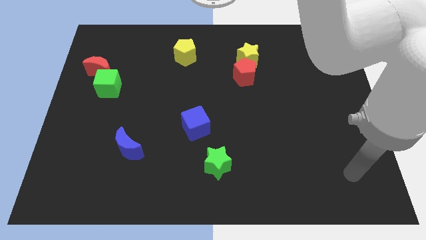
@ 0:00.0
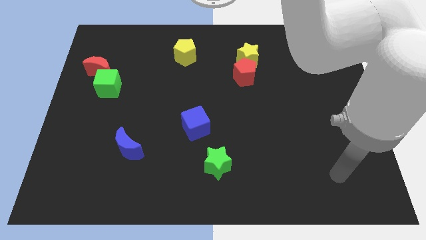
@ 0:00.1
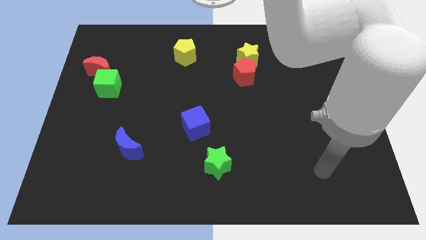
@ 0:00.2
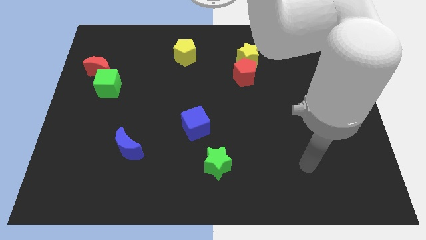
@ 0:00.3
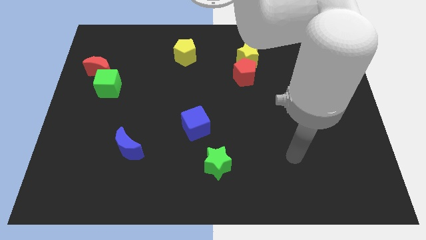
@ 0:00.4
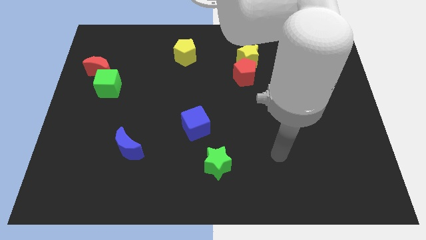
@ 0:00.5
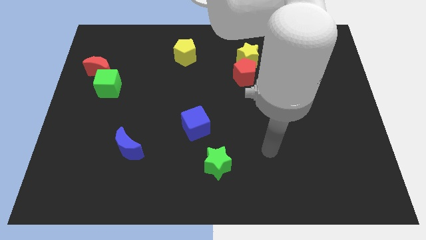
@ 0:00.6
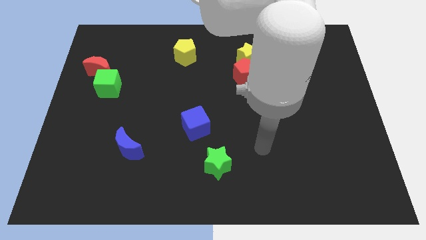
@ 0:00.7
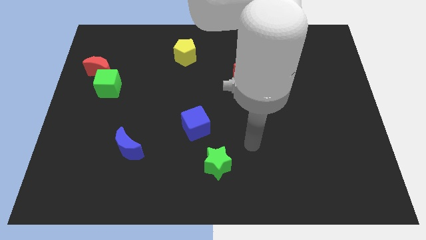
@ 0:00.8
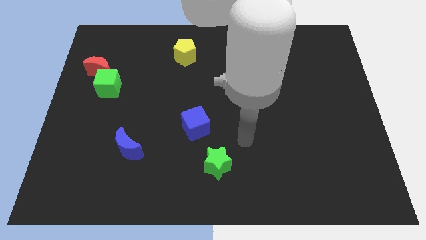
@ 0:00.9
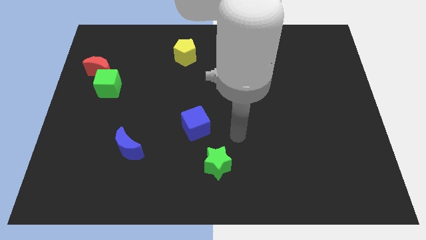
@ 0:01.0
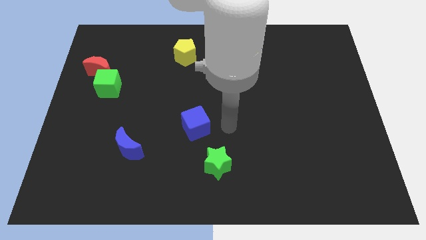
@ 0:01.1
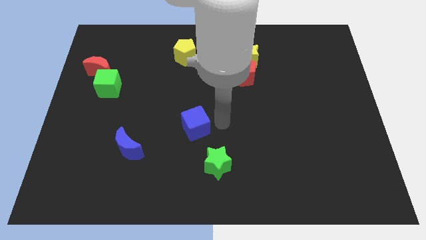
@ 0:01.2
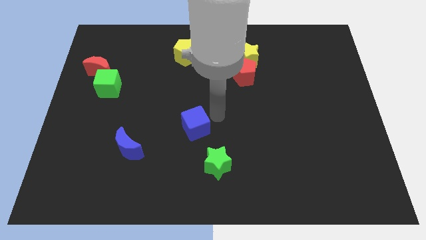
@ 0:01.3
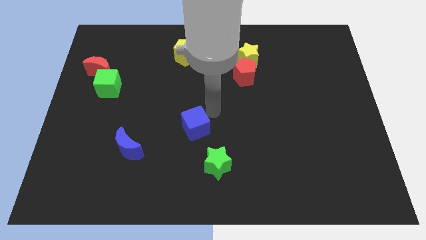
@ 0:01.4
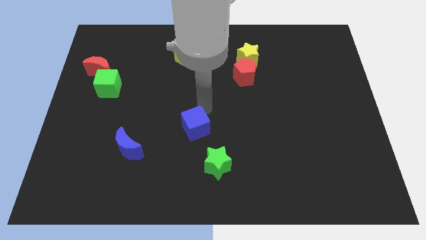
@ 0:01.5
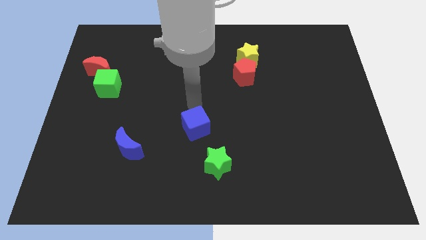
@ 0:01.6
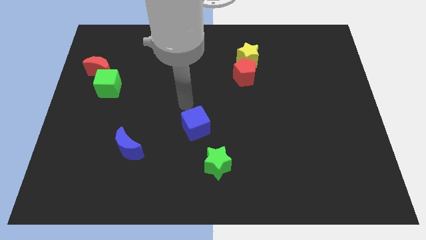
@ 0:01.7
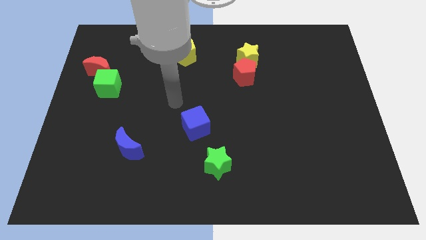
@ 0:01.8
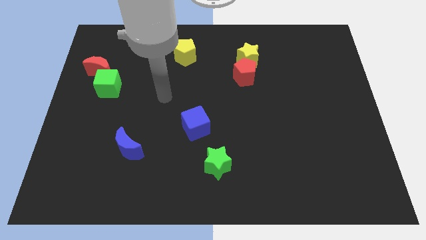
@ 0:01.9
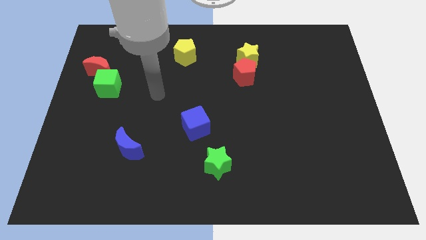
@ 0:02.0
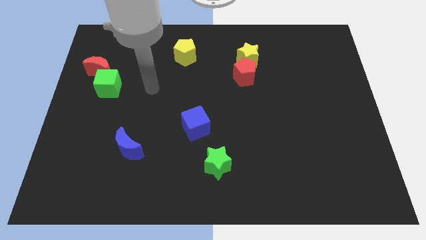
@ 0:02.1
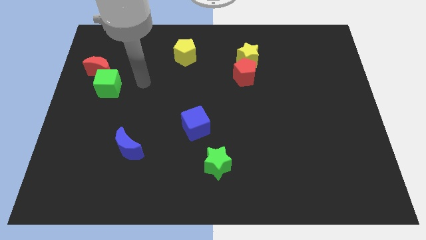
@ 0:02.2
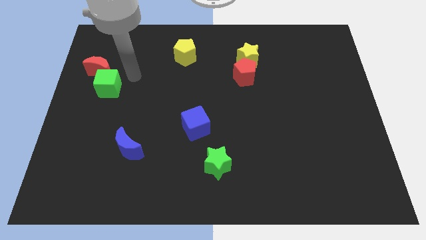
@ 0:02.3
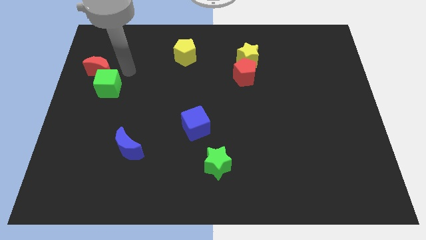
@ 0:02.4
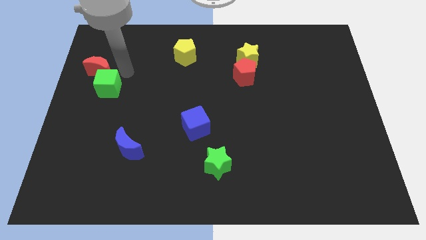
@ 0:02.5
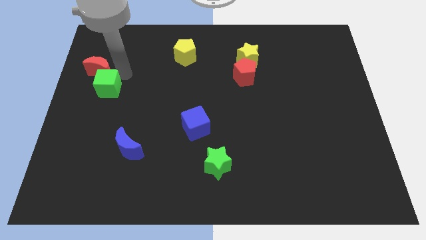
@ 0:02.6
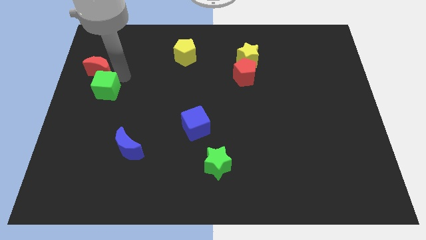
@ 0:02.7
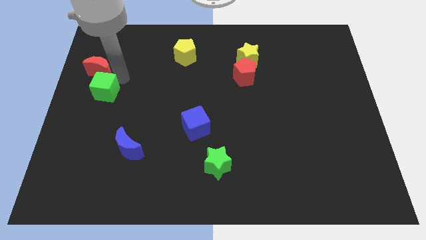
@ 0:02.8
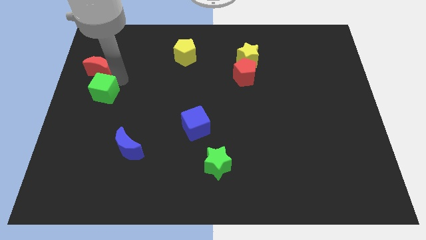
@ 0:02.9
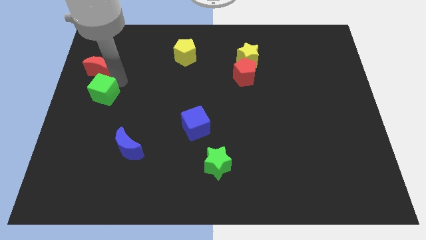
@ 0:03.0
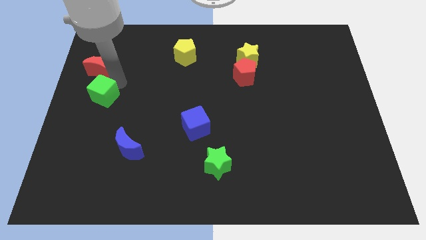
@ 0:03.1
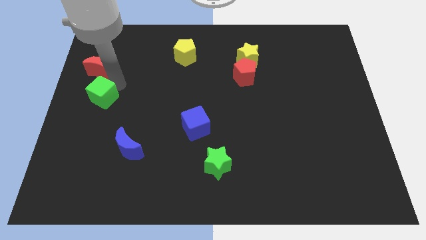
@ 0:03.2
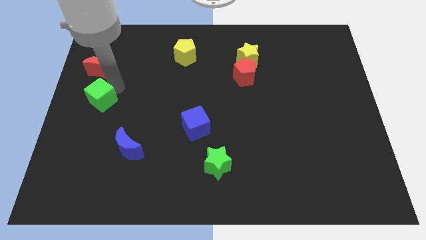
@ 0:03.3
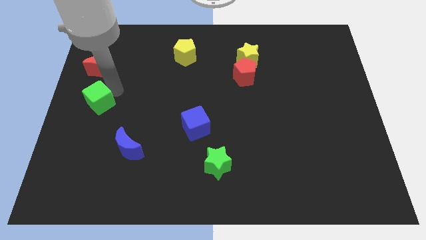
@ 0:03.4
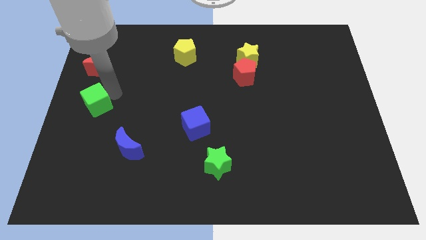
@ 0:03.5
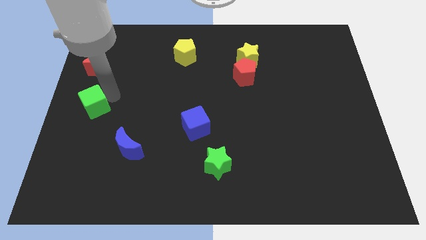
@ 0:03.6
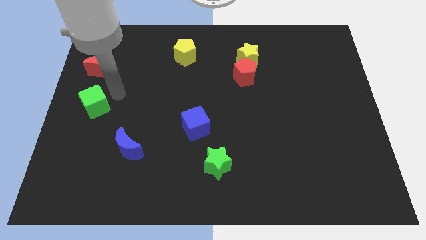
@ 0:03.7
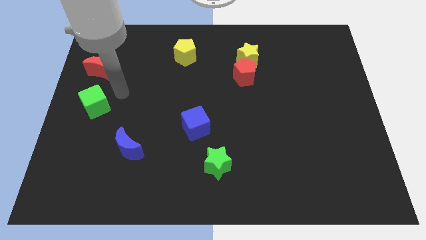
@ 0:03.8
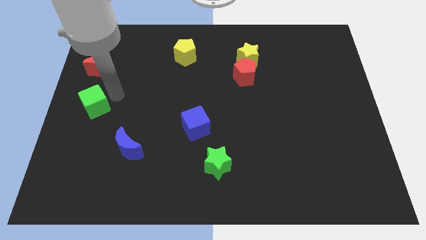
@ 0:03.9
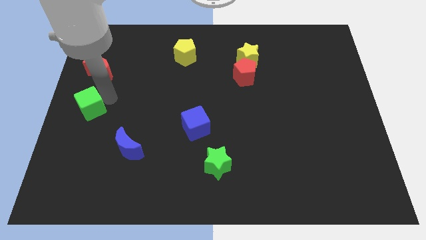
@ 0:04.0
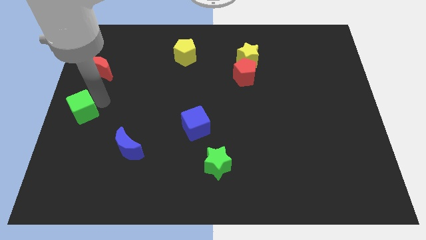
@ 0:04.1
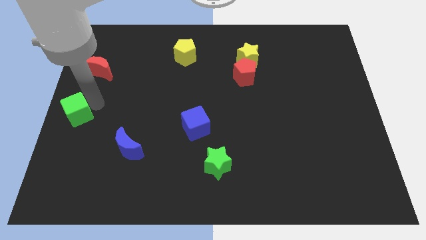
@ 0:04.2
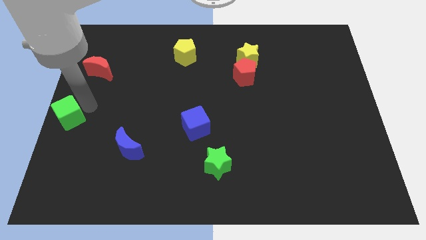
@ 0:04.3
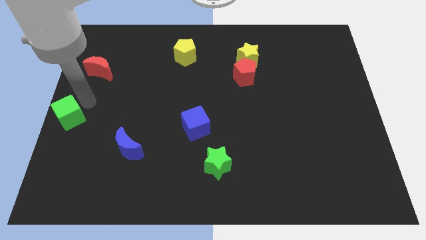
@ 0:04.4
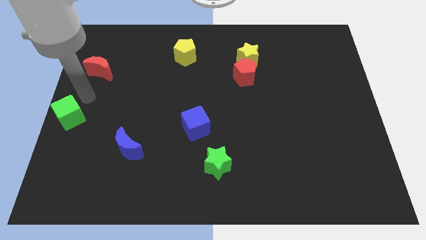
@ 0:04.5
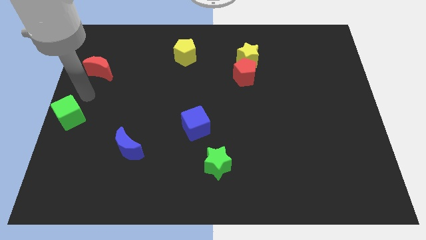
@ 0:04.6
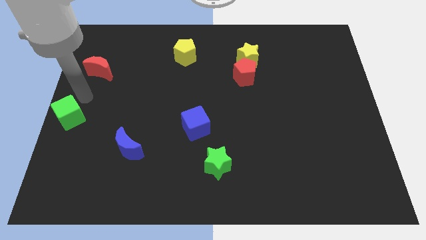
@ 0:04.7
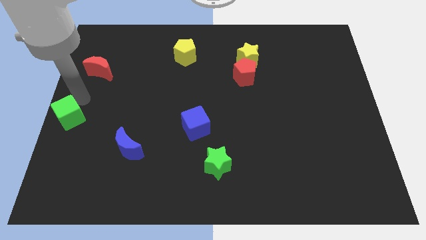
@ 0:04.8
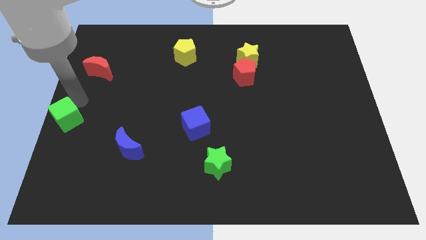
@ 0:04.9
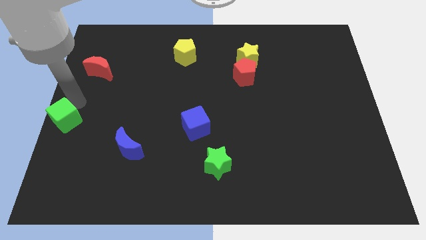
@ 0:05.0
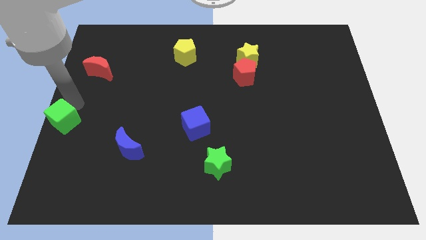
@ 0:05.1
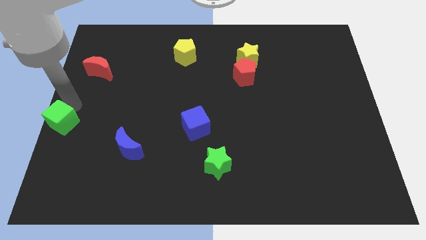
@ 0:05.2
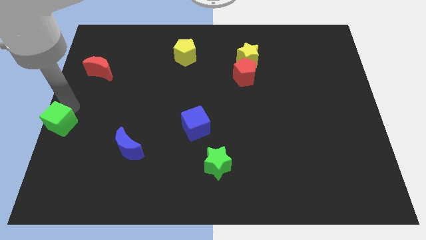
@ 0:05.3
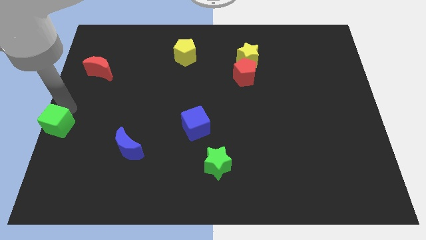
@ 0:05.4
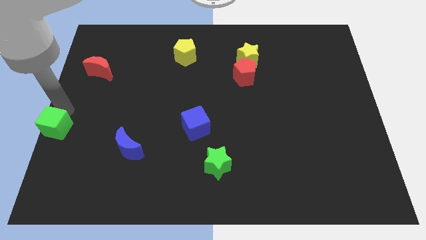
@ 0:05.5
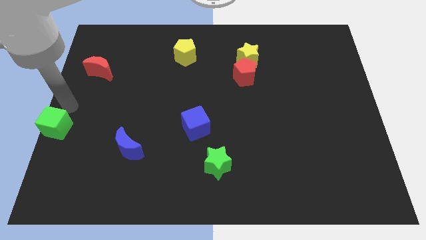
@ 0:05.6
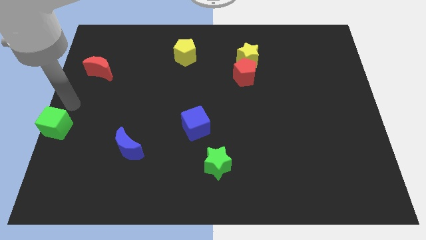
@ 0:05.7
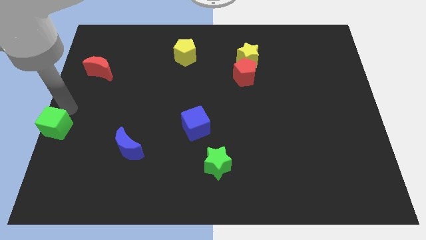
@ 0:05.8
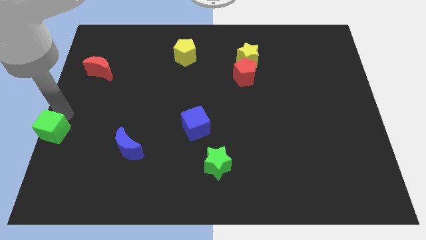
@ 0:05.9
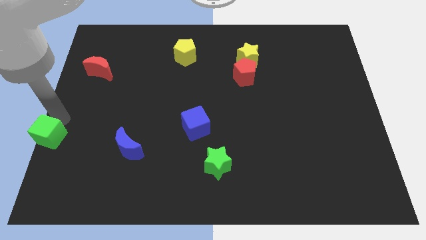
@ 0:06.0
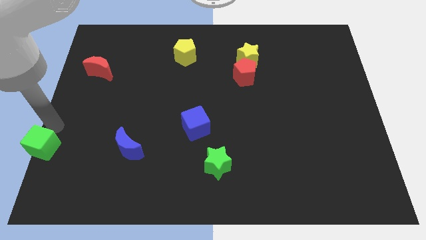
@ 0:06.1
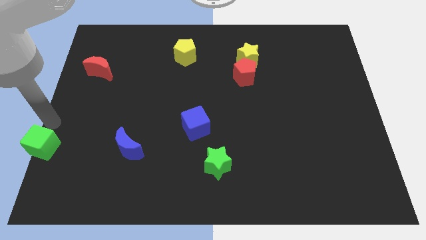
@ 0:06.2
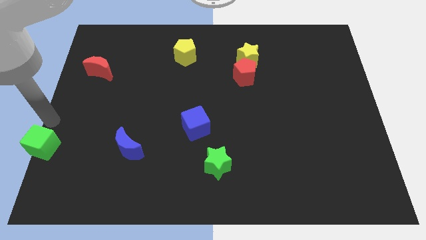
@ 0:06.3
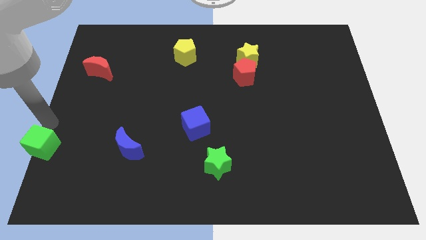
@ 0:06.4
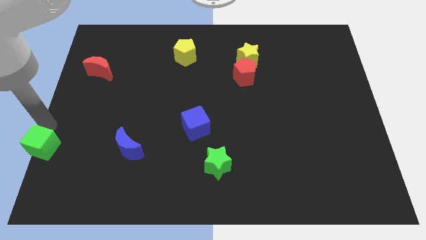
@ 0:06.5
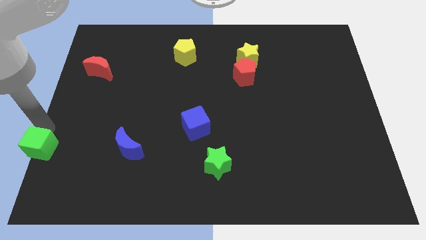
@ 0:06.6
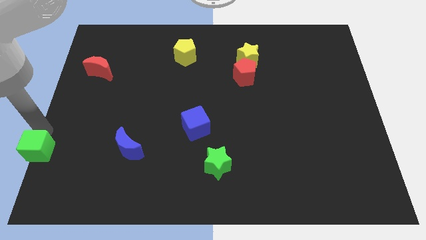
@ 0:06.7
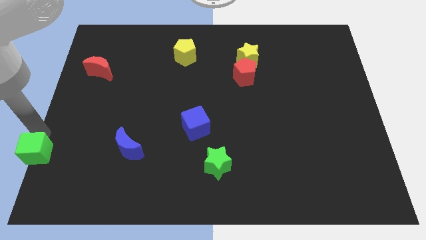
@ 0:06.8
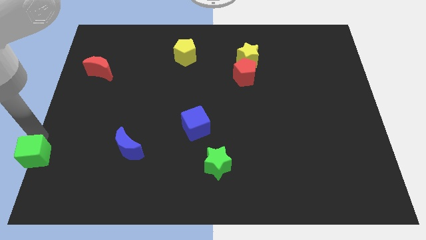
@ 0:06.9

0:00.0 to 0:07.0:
push the green cube to the lower left corner
